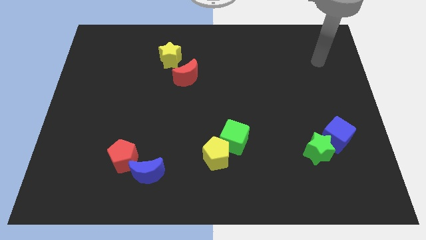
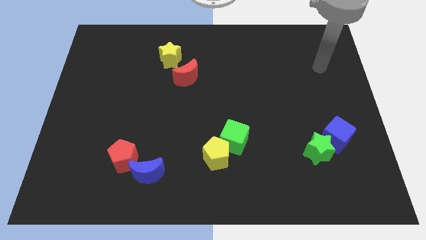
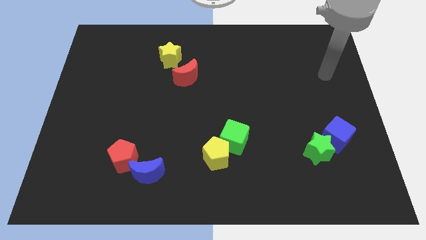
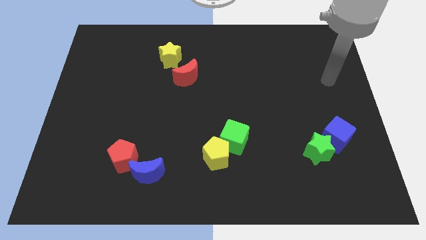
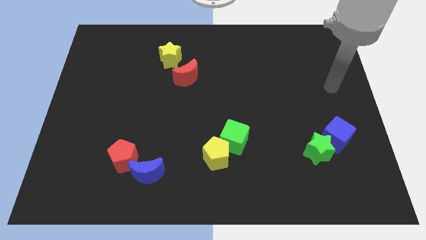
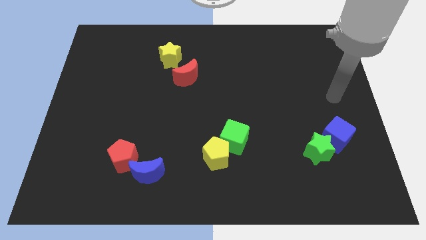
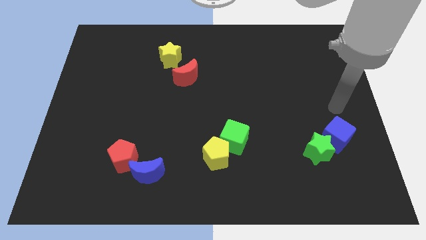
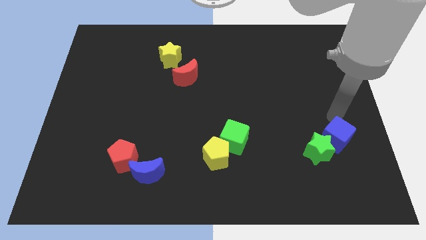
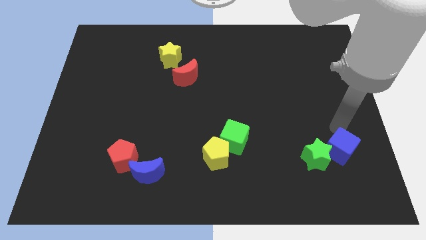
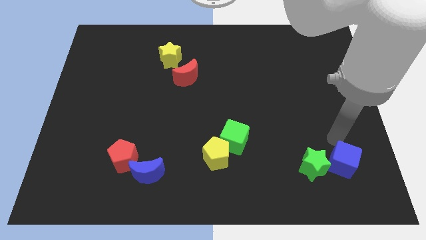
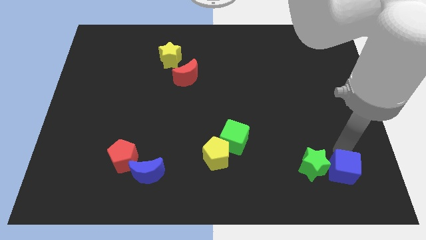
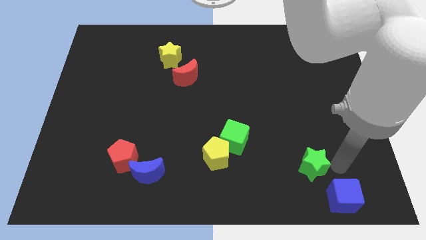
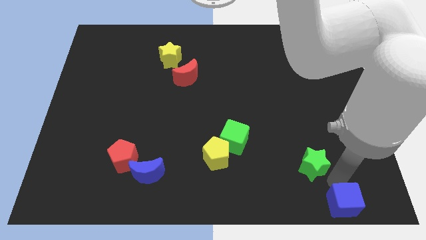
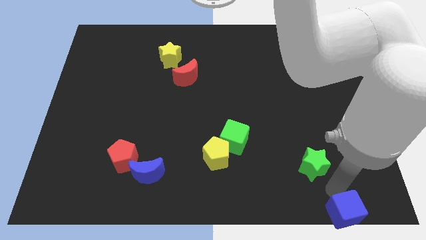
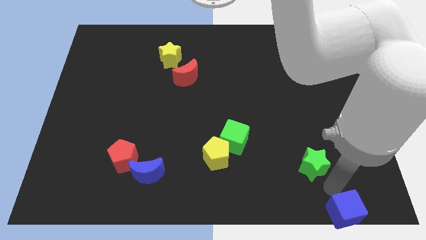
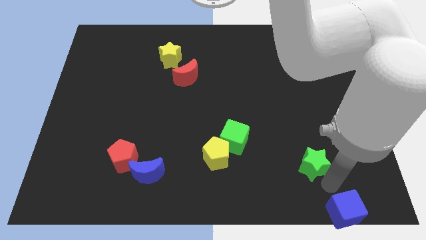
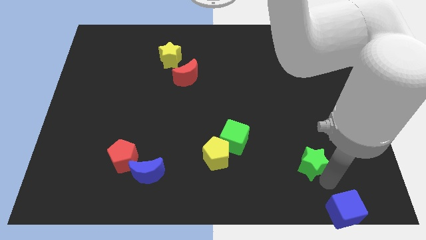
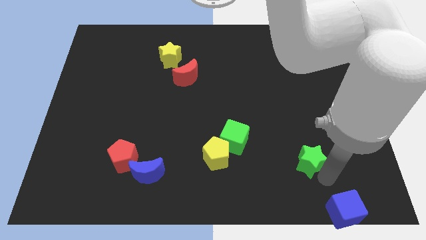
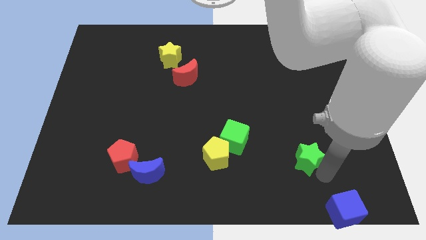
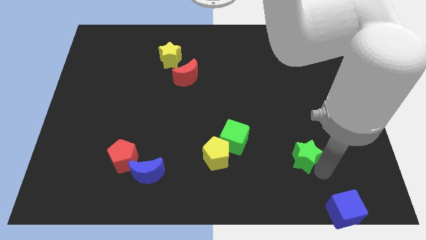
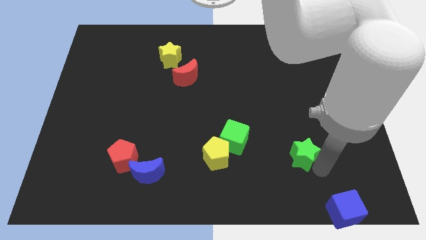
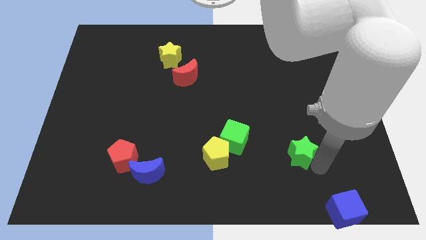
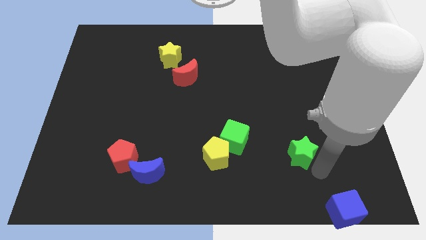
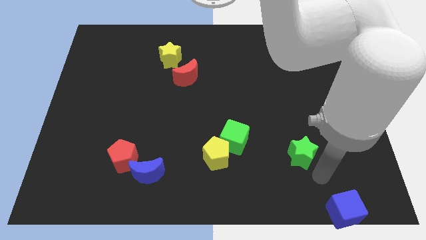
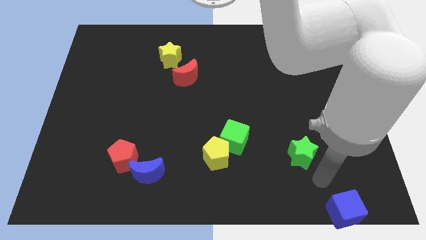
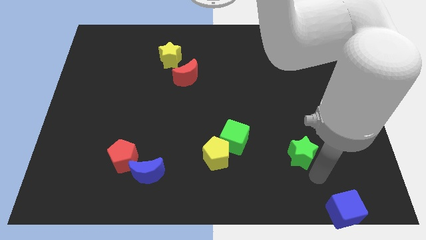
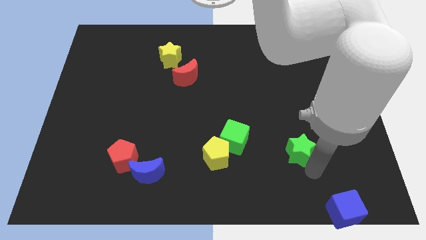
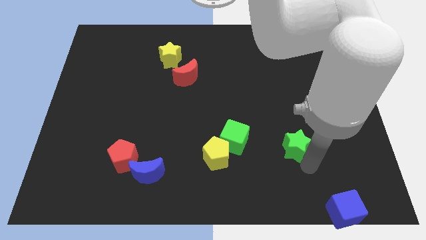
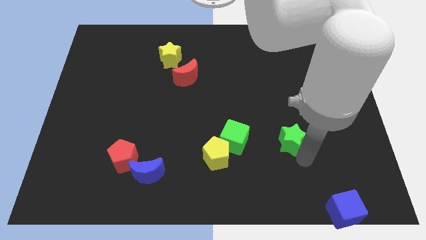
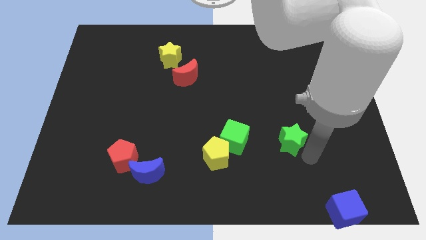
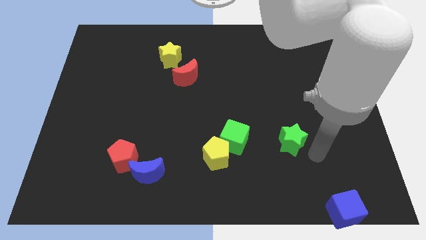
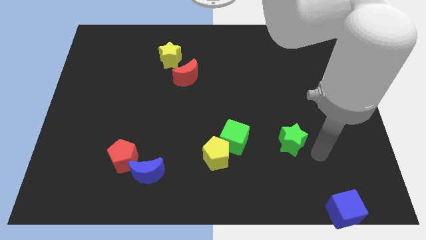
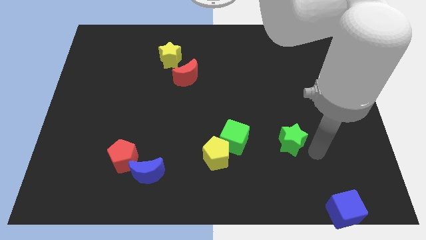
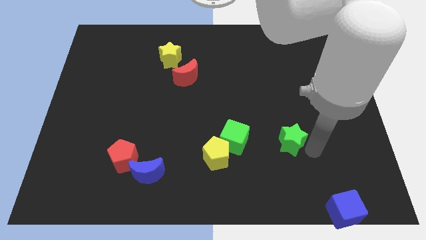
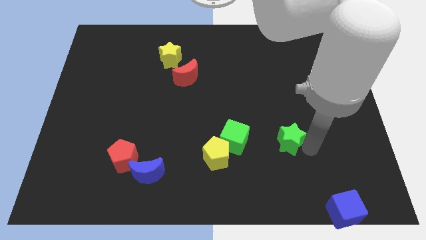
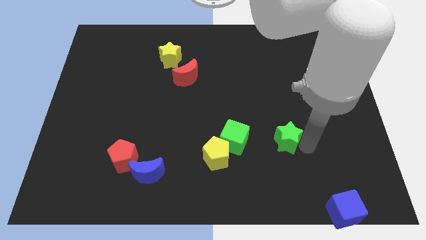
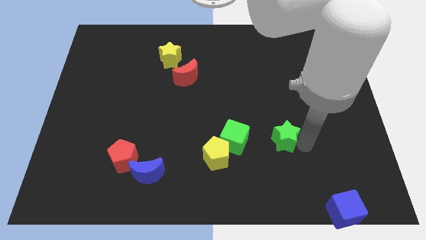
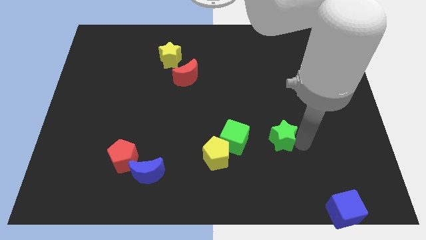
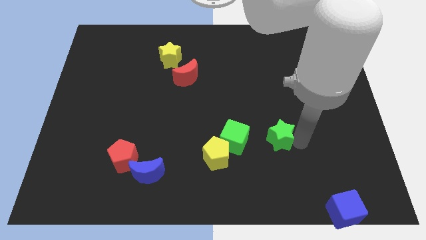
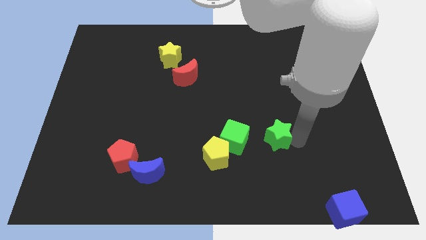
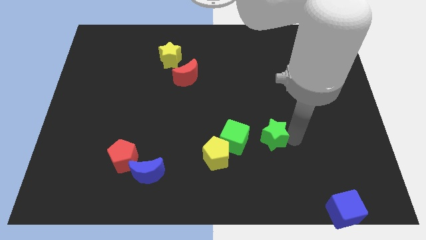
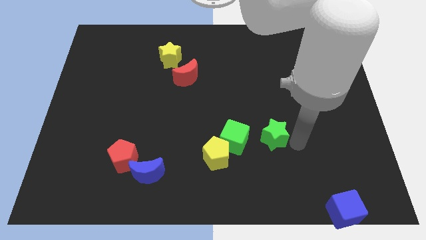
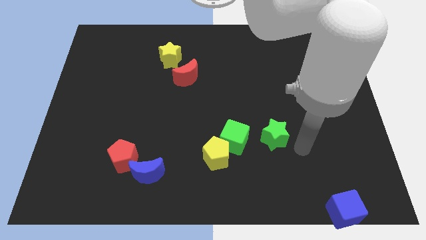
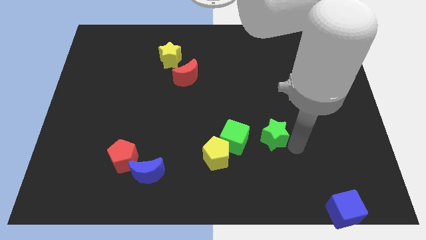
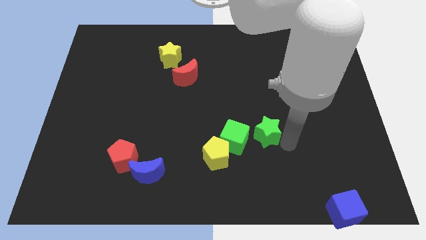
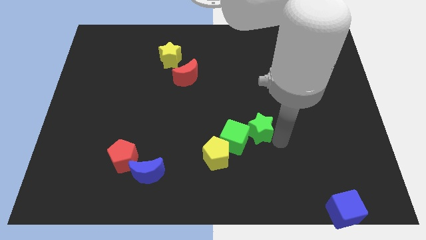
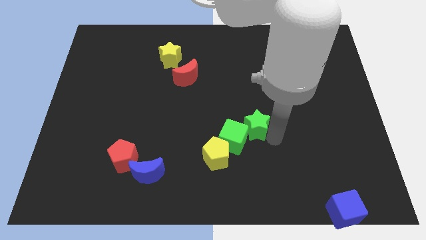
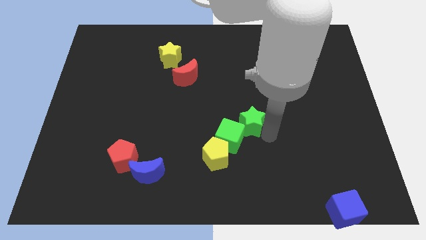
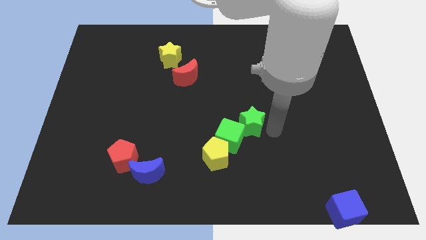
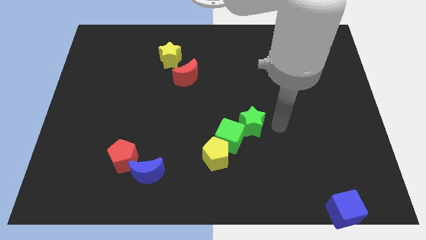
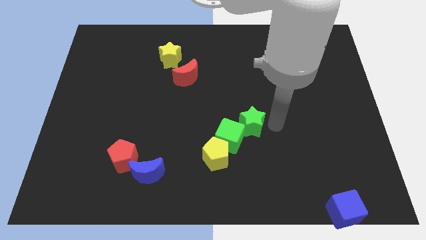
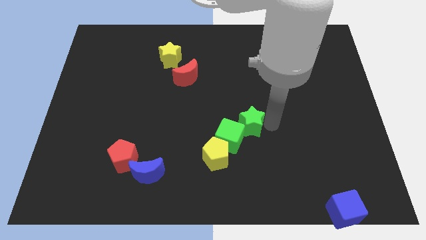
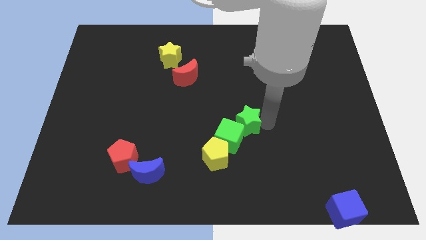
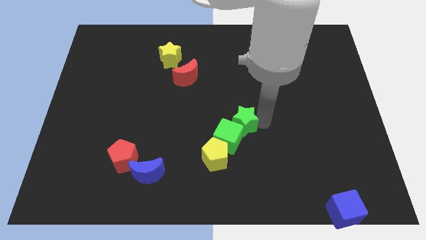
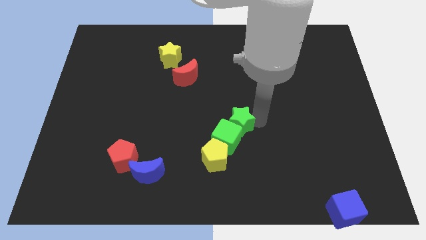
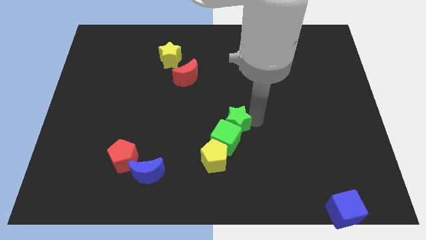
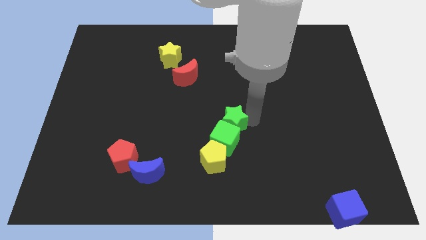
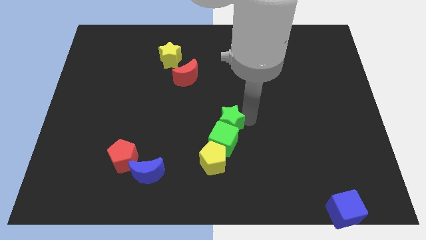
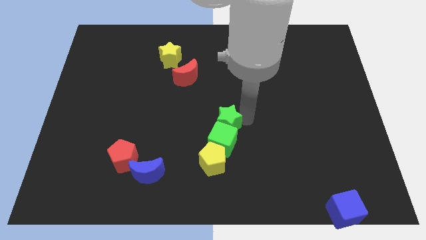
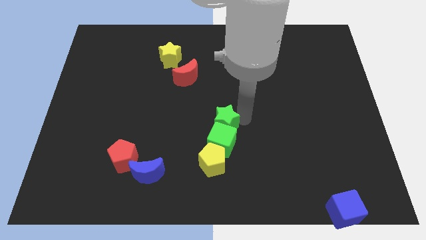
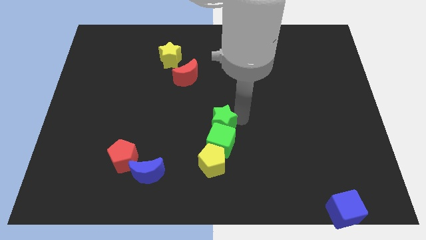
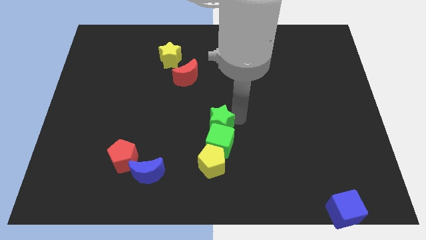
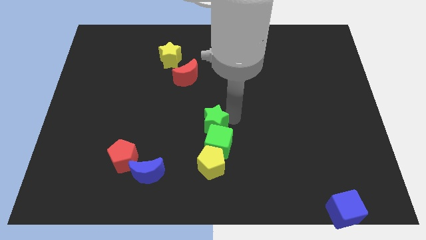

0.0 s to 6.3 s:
slide the green star to the left

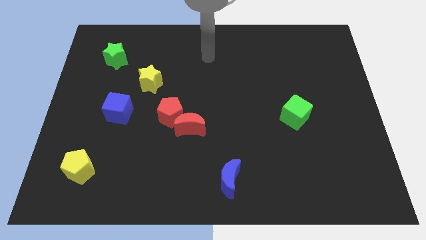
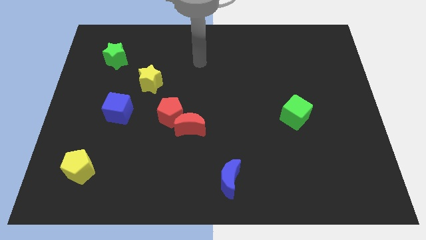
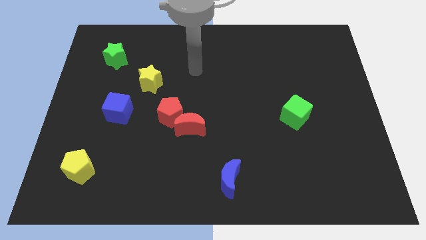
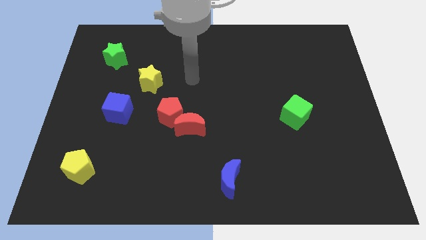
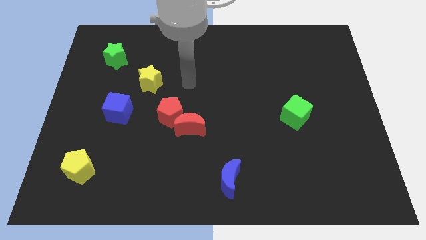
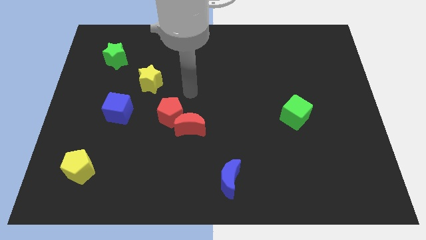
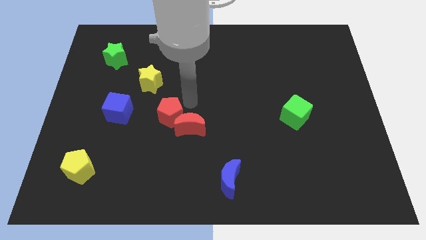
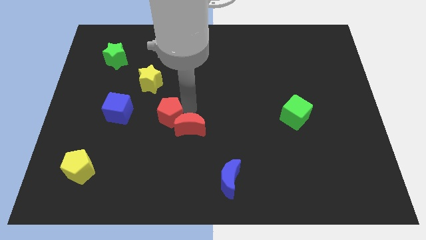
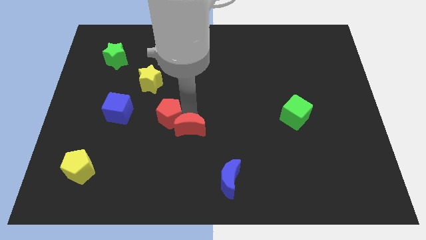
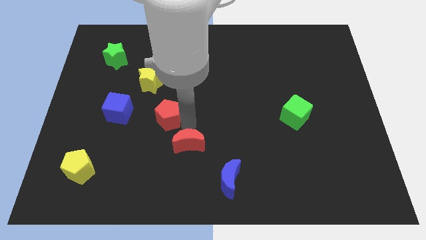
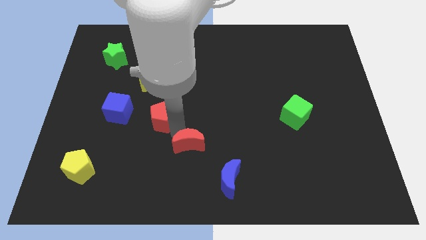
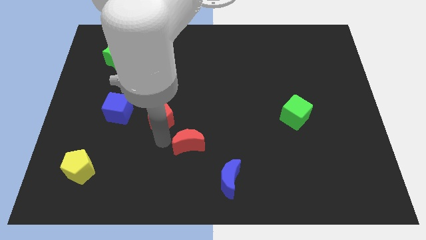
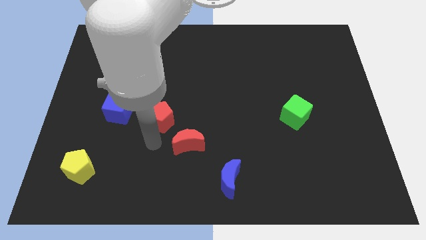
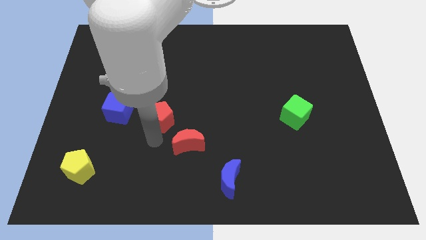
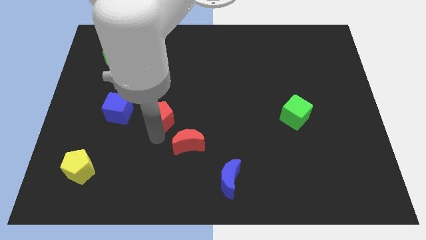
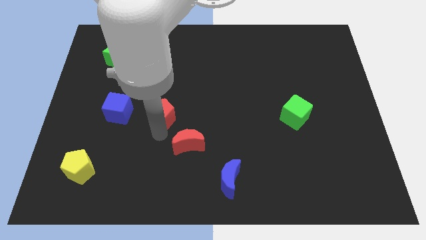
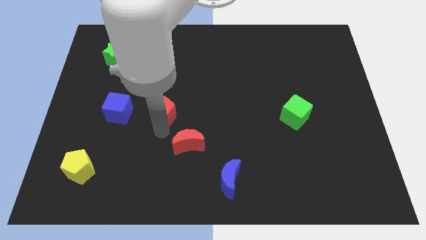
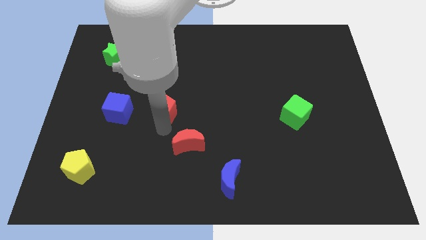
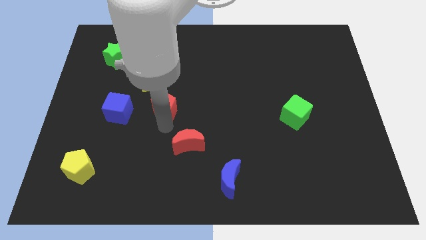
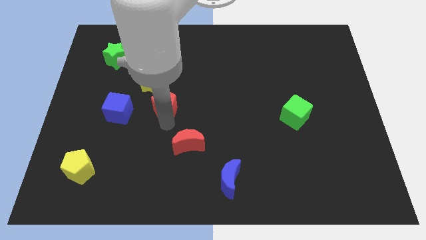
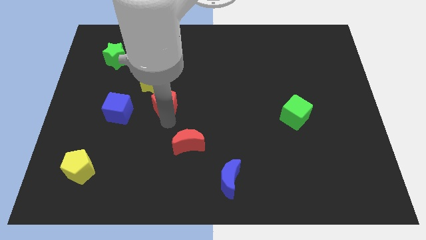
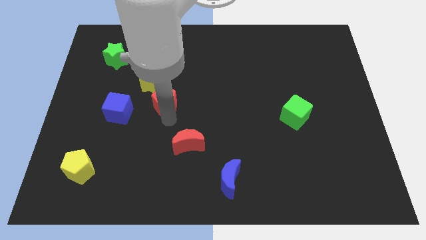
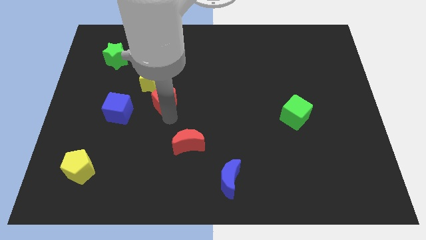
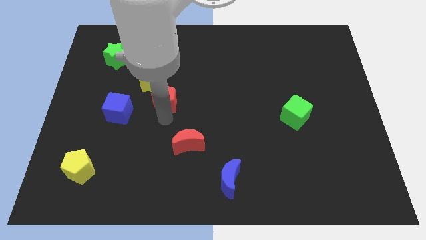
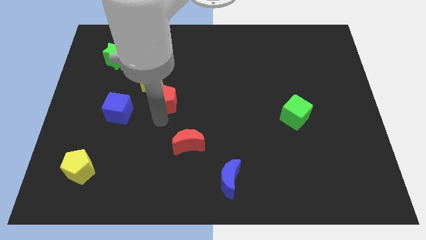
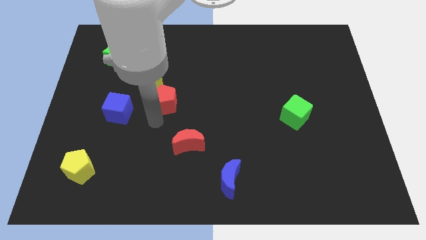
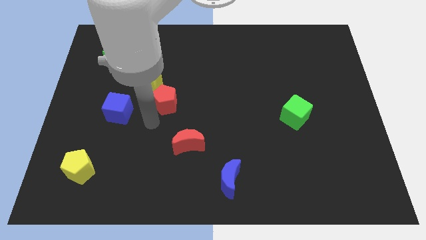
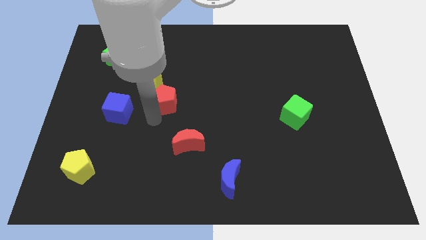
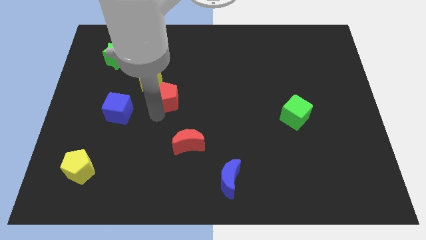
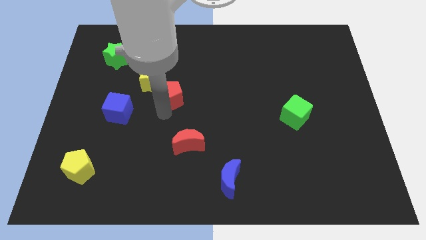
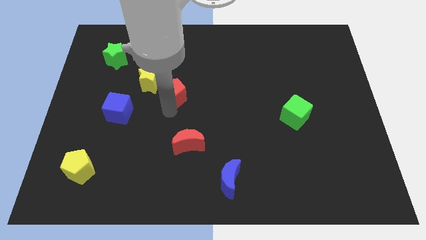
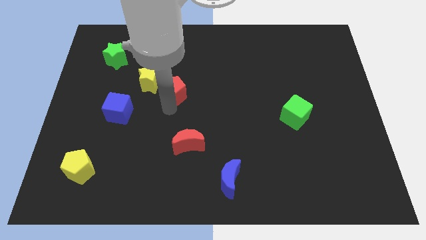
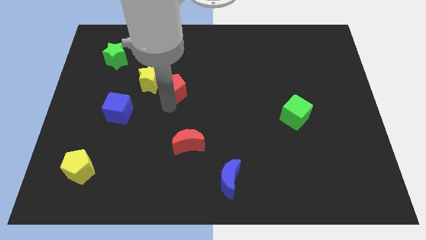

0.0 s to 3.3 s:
slightly move the red pentagon upwards
